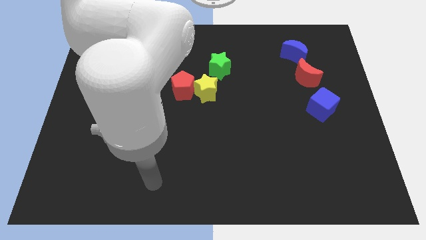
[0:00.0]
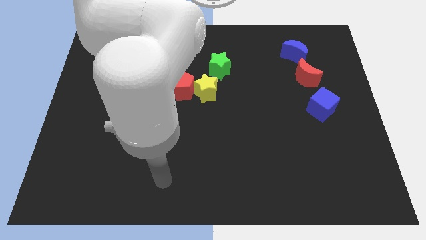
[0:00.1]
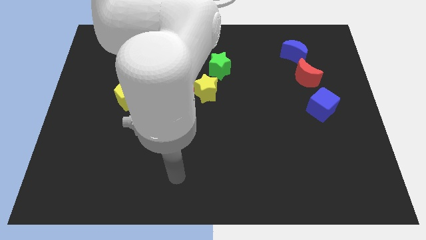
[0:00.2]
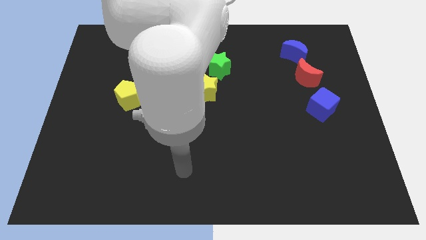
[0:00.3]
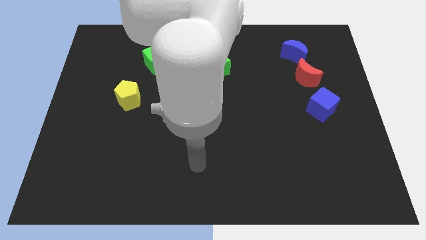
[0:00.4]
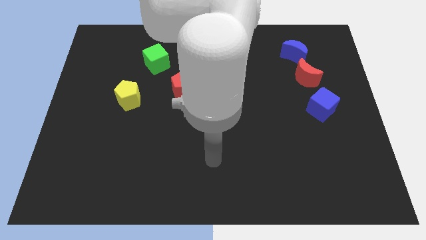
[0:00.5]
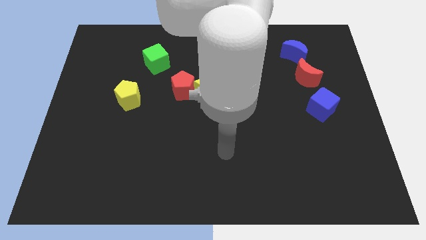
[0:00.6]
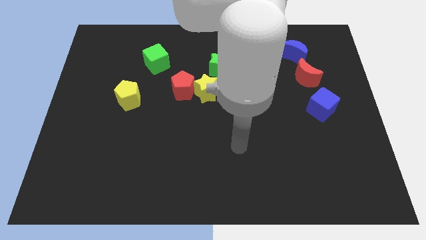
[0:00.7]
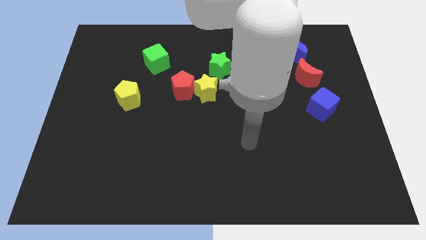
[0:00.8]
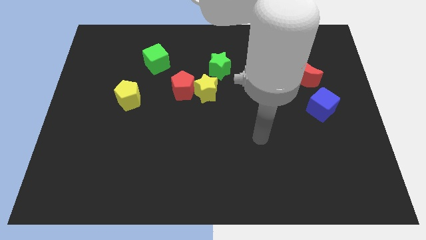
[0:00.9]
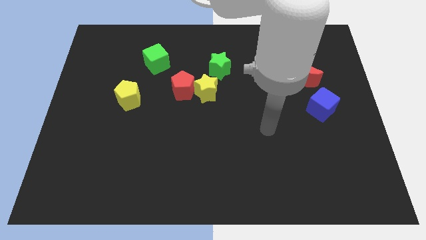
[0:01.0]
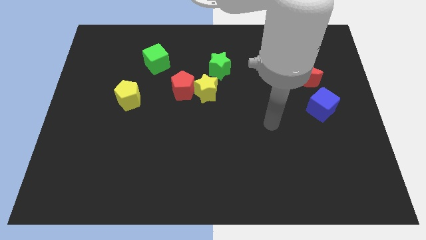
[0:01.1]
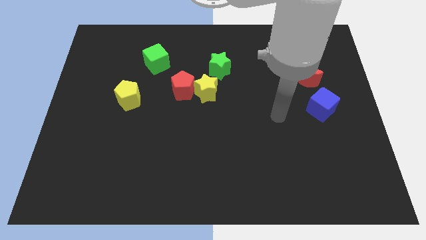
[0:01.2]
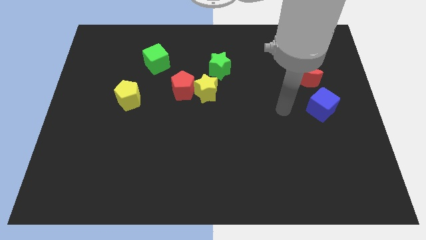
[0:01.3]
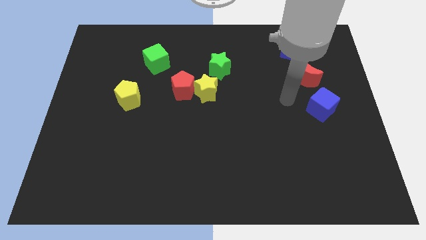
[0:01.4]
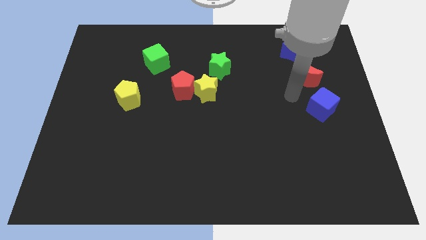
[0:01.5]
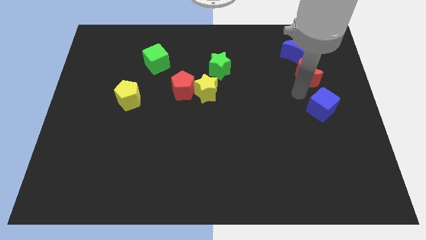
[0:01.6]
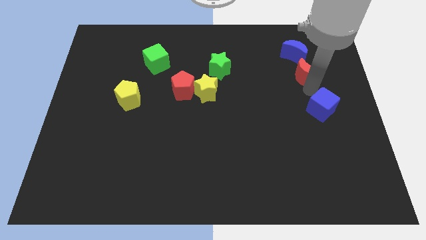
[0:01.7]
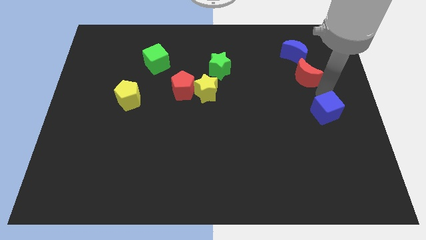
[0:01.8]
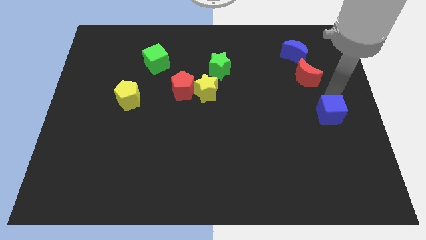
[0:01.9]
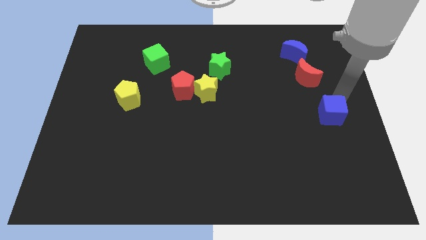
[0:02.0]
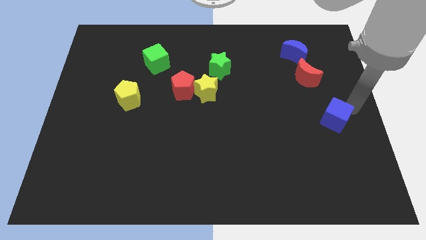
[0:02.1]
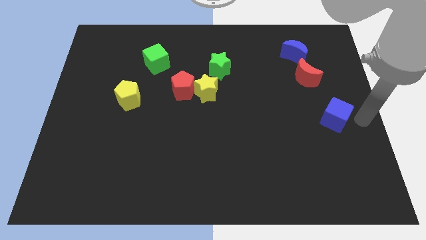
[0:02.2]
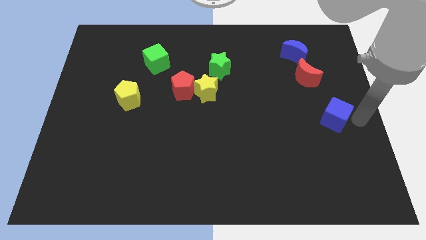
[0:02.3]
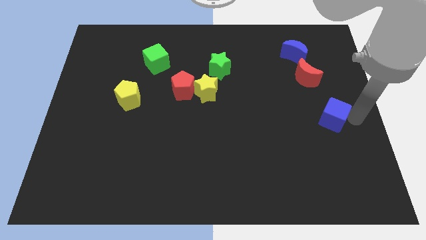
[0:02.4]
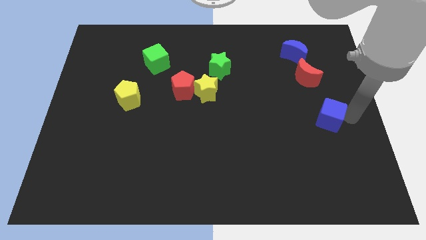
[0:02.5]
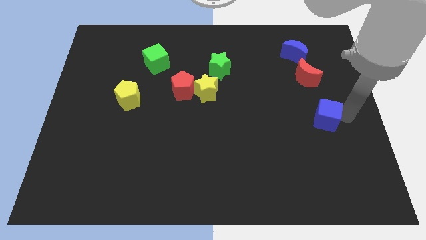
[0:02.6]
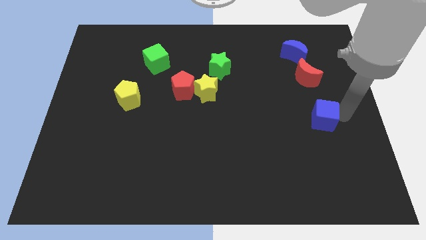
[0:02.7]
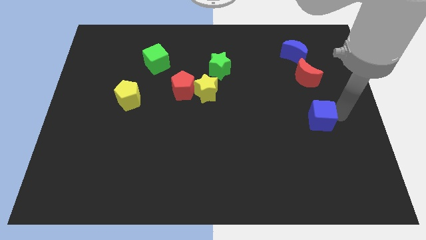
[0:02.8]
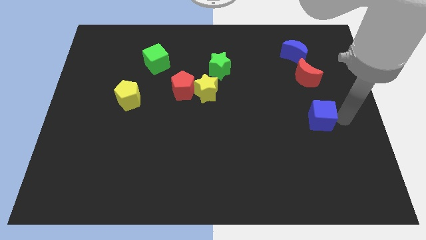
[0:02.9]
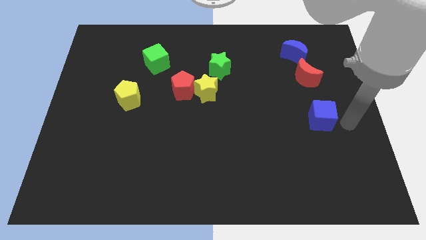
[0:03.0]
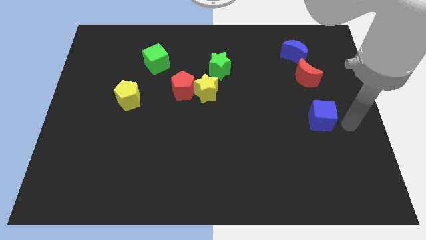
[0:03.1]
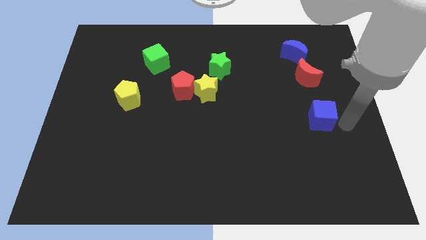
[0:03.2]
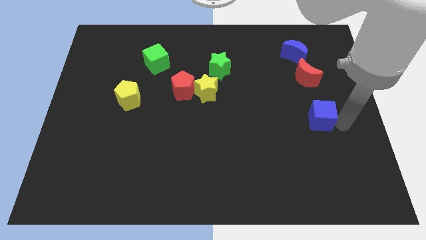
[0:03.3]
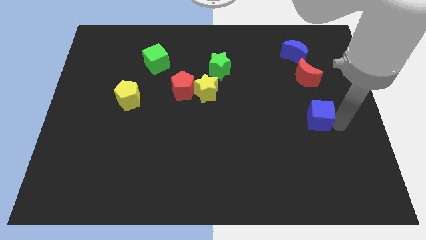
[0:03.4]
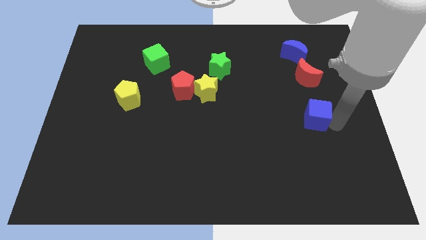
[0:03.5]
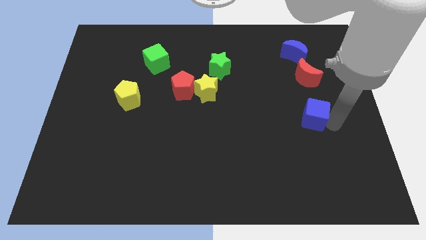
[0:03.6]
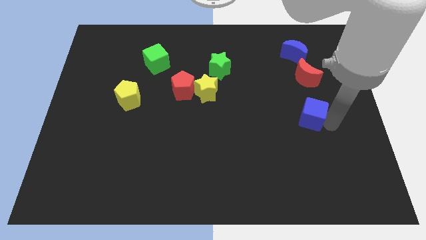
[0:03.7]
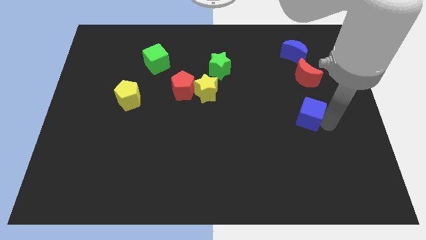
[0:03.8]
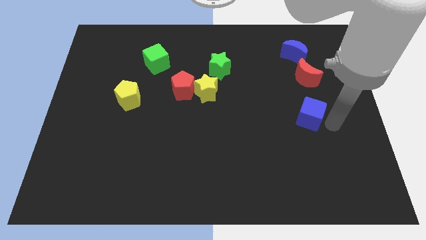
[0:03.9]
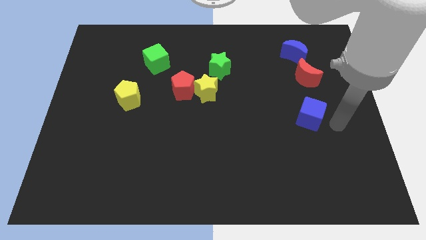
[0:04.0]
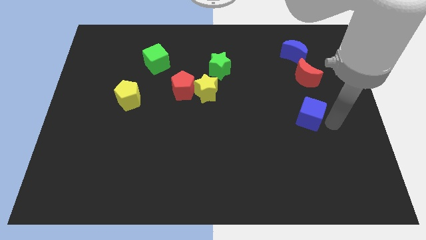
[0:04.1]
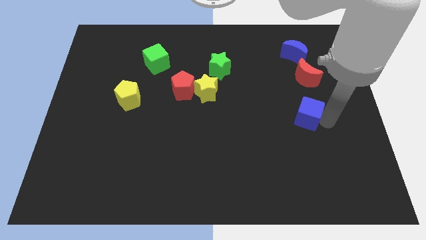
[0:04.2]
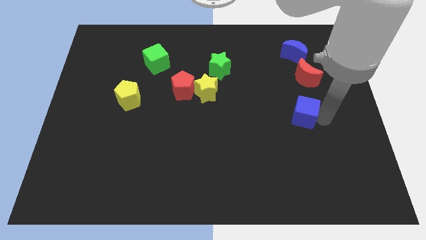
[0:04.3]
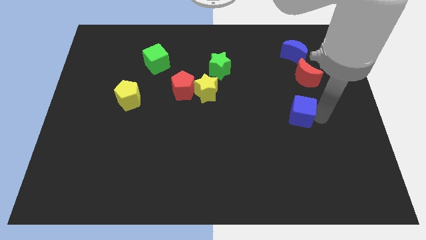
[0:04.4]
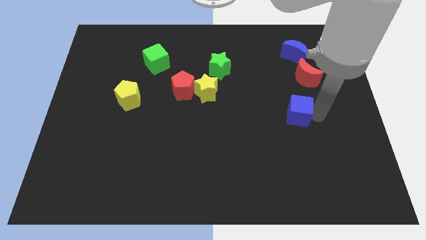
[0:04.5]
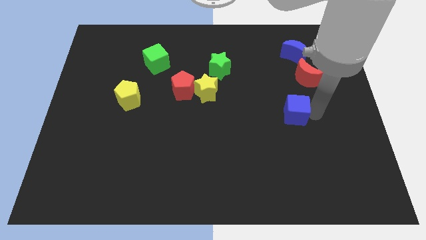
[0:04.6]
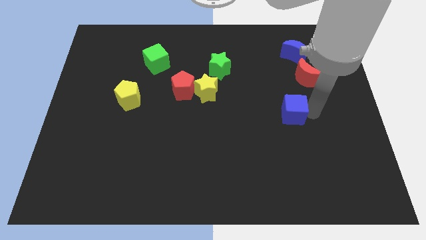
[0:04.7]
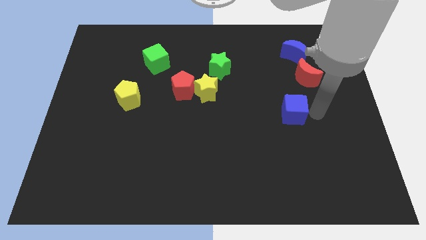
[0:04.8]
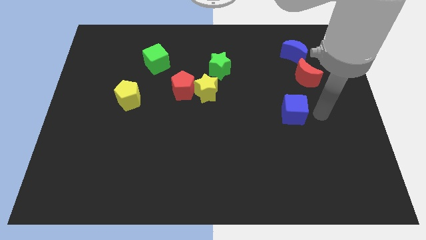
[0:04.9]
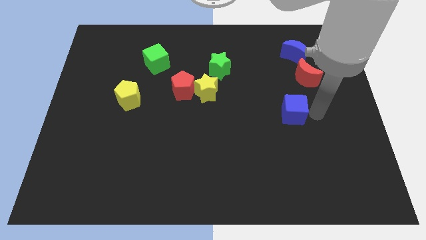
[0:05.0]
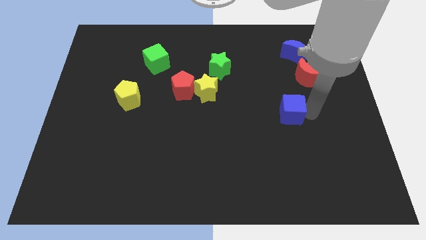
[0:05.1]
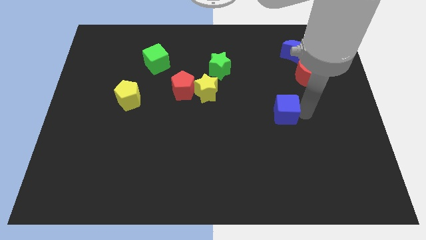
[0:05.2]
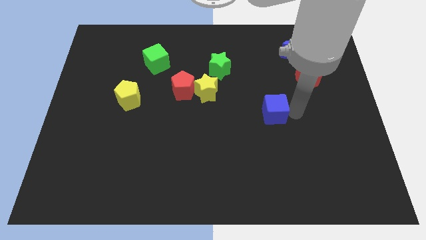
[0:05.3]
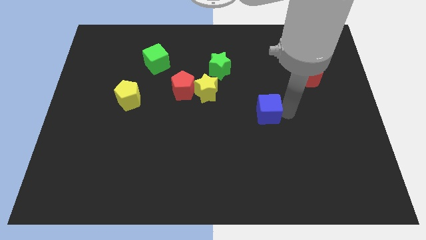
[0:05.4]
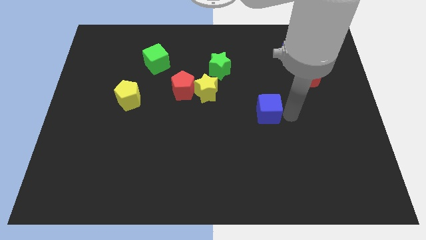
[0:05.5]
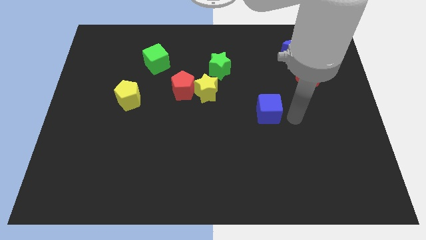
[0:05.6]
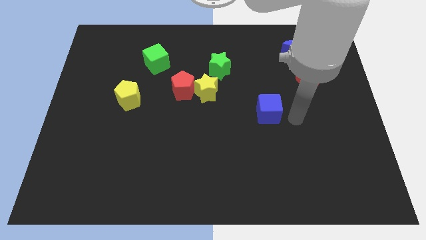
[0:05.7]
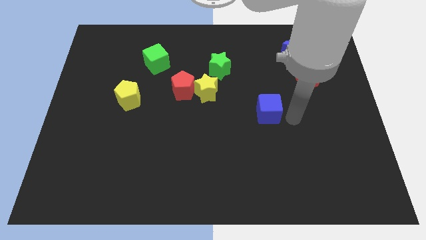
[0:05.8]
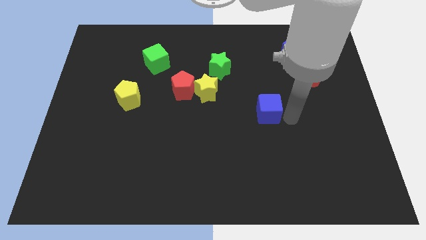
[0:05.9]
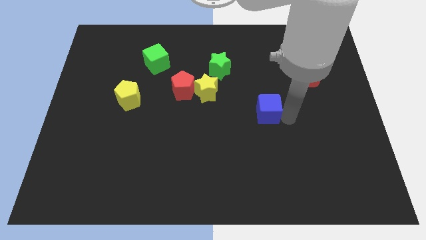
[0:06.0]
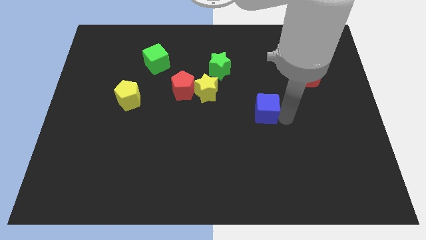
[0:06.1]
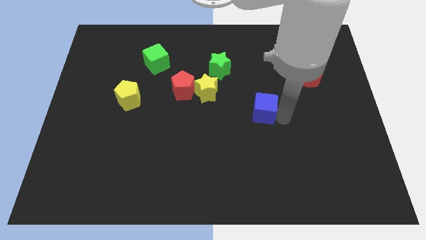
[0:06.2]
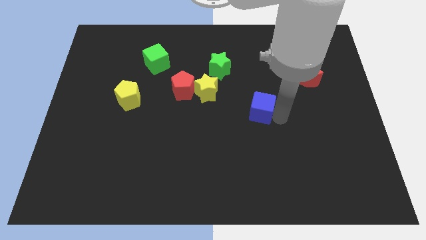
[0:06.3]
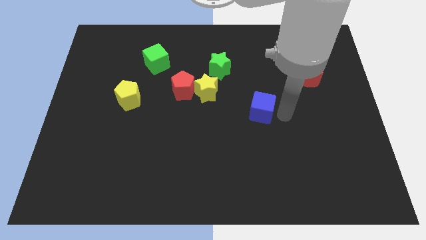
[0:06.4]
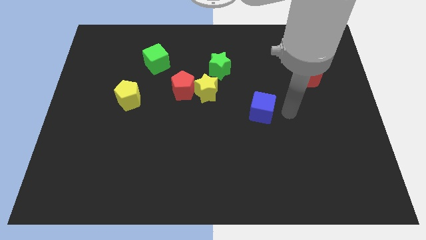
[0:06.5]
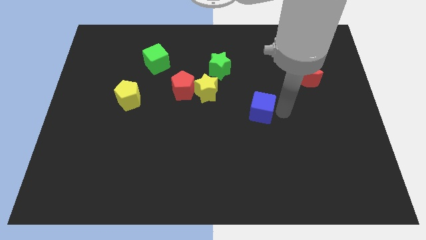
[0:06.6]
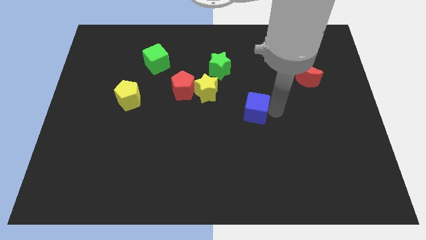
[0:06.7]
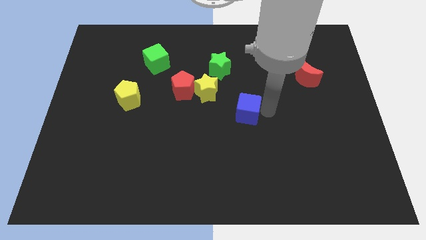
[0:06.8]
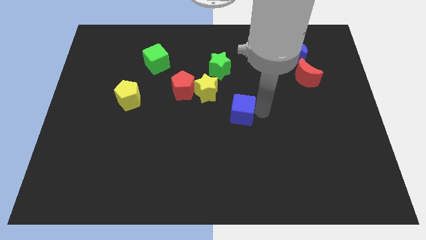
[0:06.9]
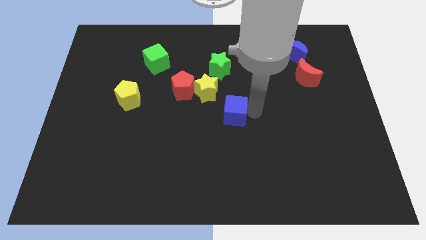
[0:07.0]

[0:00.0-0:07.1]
move the blue cube to the left

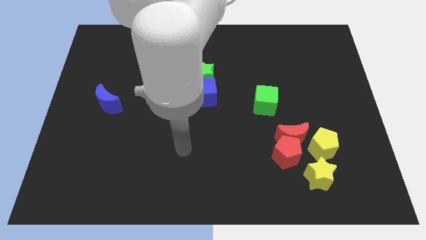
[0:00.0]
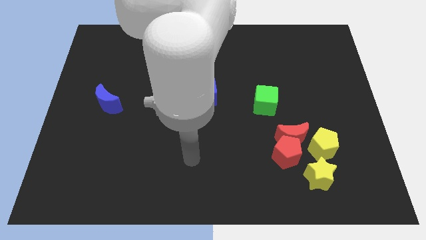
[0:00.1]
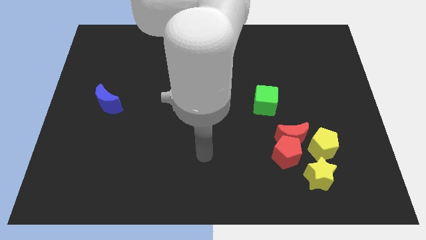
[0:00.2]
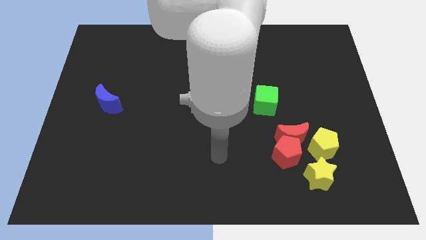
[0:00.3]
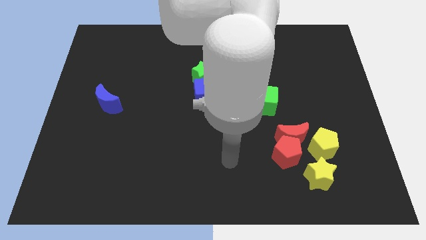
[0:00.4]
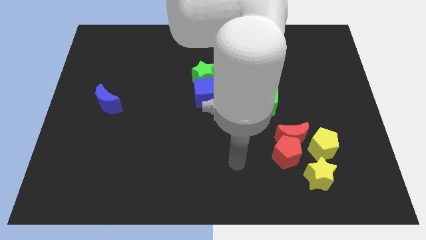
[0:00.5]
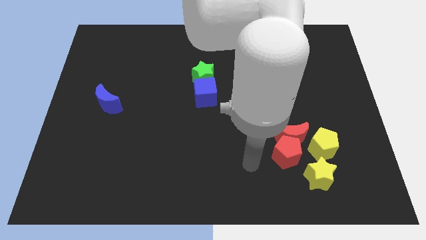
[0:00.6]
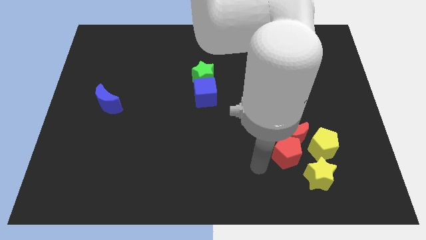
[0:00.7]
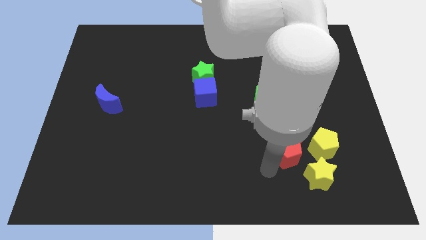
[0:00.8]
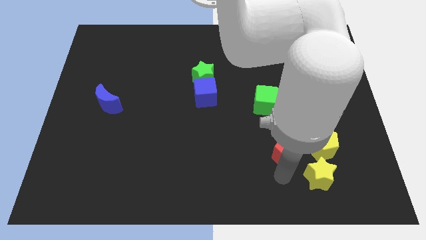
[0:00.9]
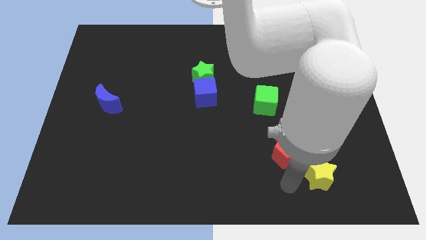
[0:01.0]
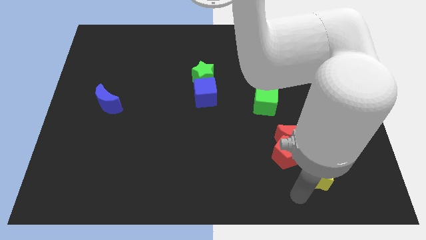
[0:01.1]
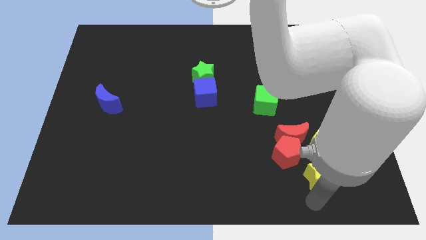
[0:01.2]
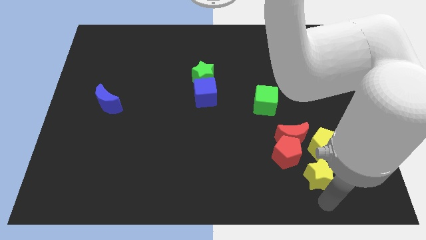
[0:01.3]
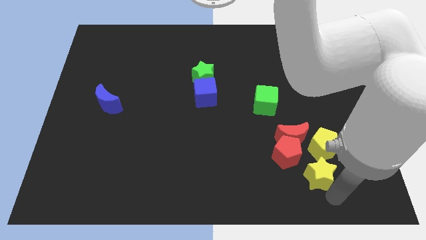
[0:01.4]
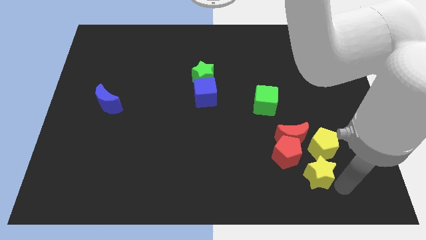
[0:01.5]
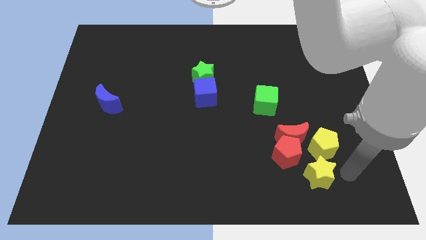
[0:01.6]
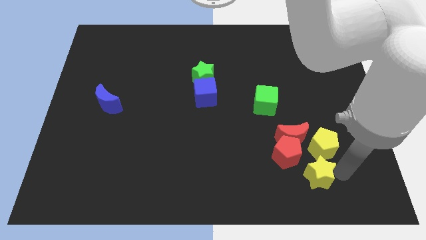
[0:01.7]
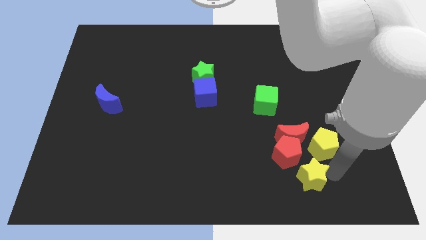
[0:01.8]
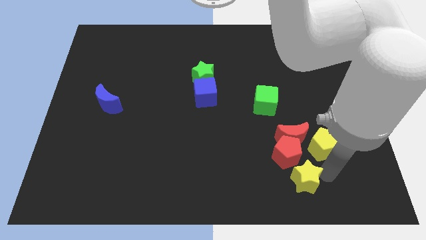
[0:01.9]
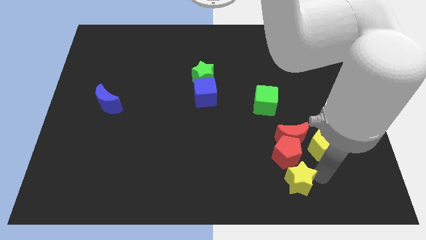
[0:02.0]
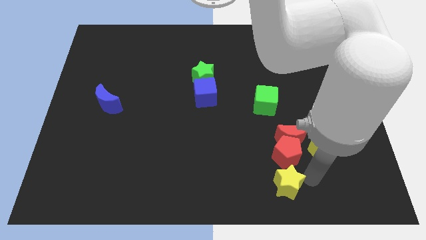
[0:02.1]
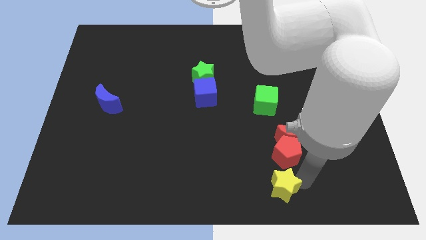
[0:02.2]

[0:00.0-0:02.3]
slide the yellow star slightly to the left
